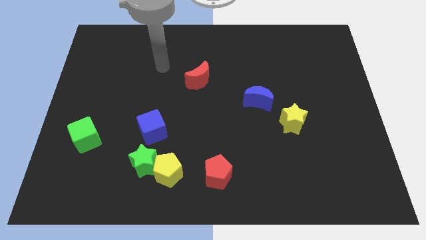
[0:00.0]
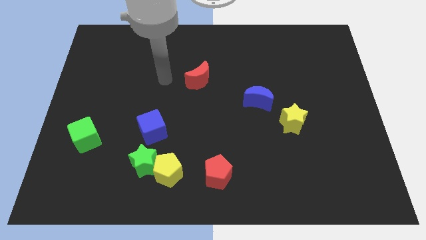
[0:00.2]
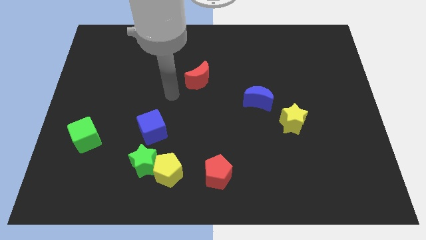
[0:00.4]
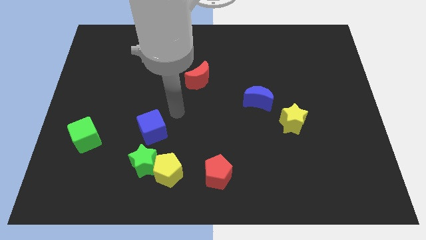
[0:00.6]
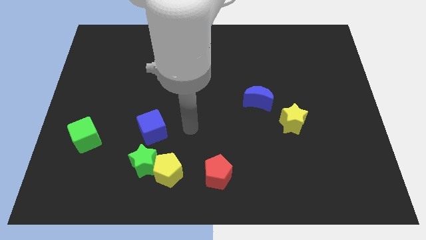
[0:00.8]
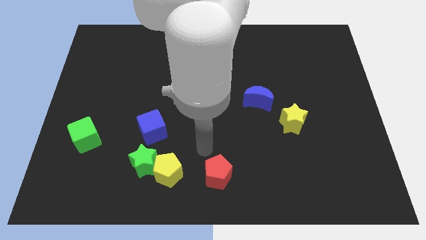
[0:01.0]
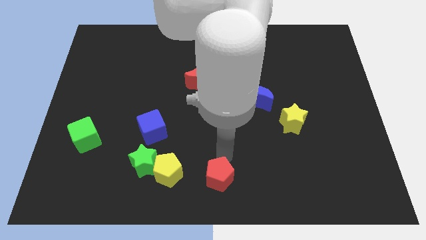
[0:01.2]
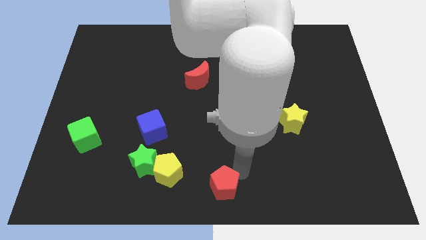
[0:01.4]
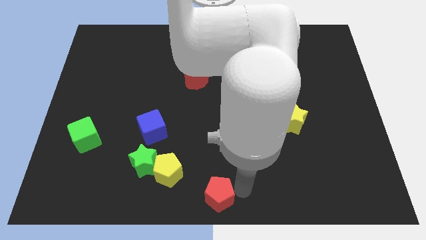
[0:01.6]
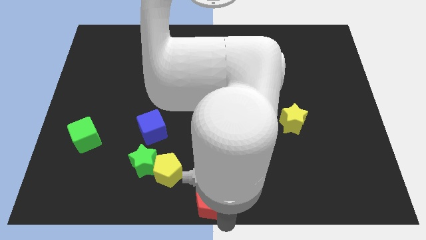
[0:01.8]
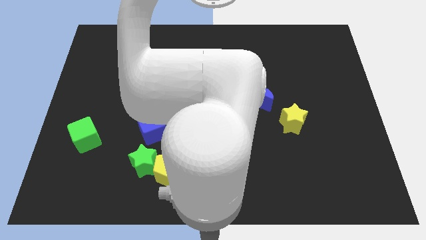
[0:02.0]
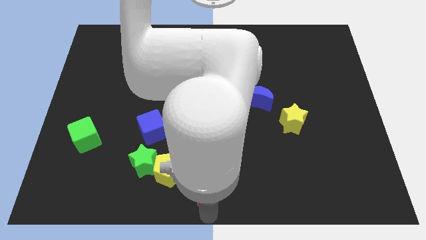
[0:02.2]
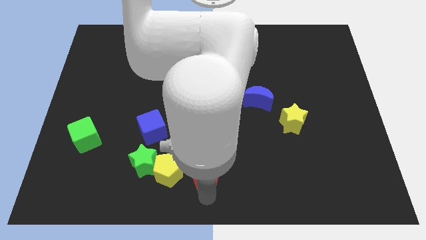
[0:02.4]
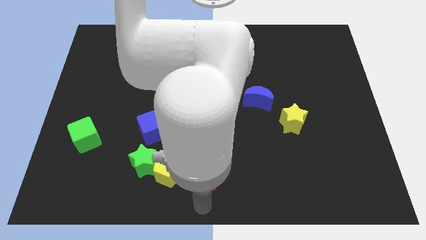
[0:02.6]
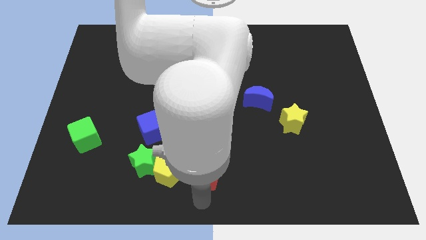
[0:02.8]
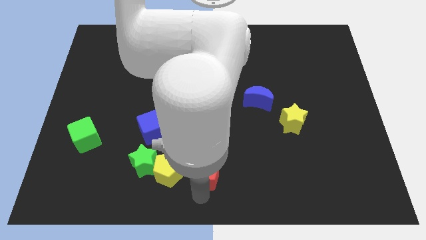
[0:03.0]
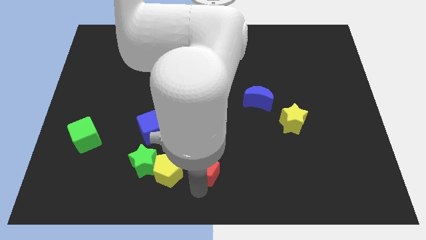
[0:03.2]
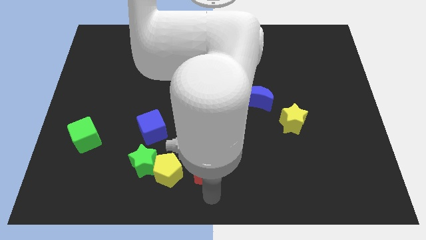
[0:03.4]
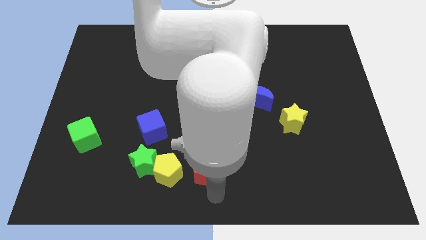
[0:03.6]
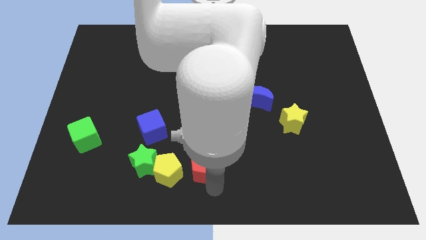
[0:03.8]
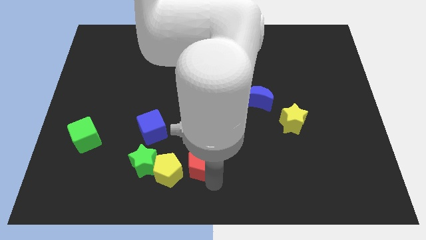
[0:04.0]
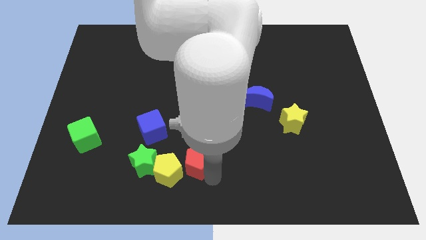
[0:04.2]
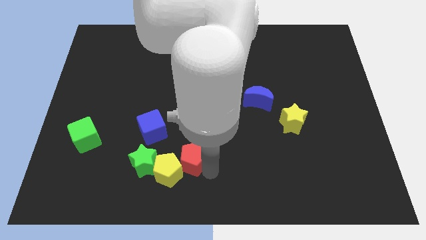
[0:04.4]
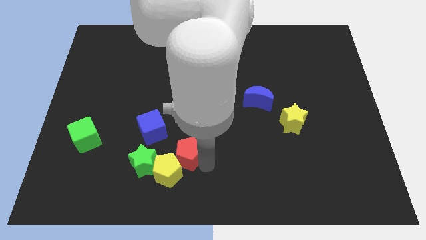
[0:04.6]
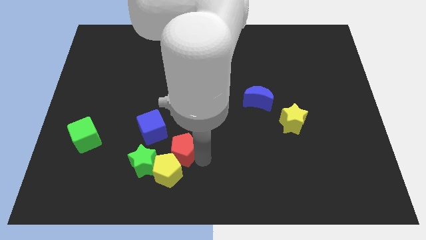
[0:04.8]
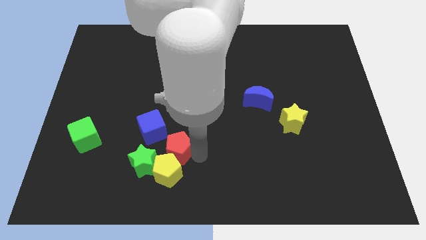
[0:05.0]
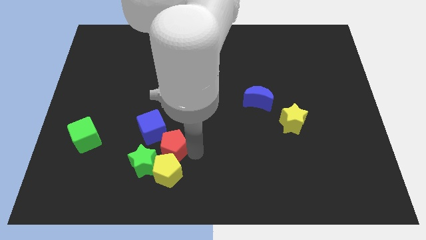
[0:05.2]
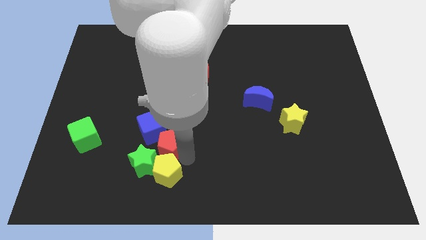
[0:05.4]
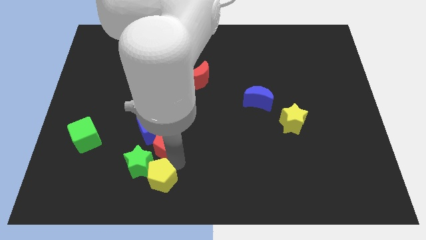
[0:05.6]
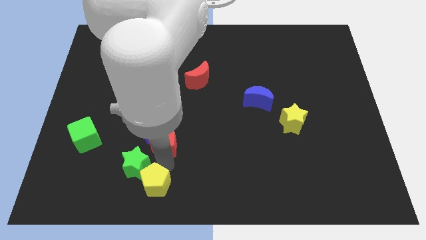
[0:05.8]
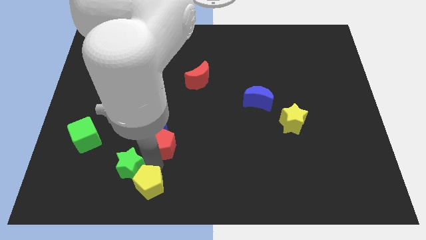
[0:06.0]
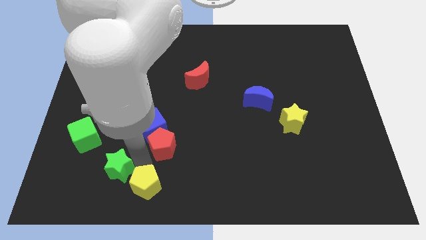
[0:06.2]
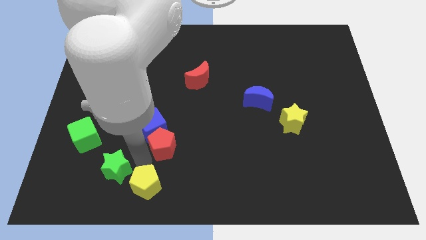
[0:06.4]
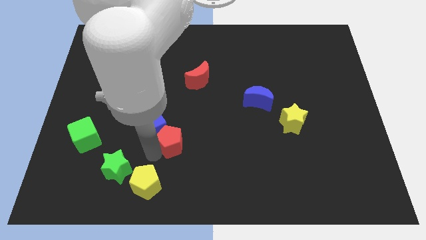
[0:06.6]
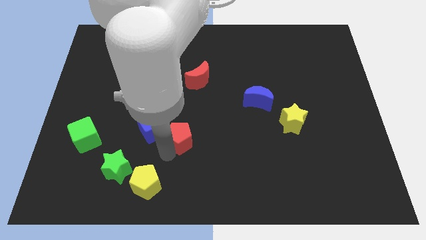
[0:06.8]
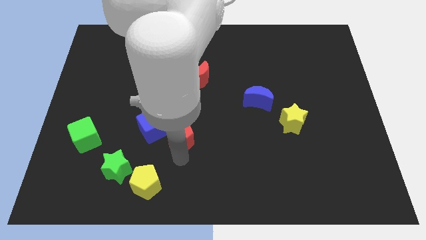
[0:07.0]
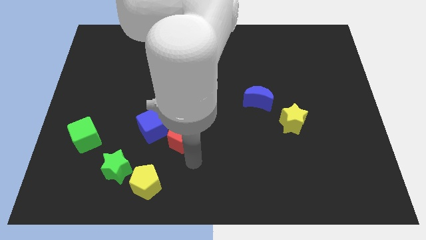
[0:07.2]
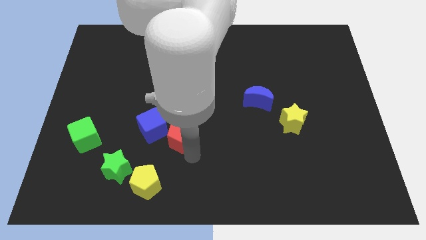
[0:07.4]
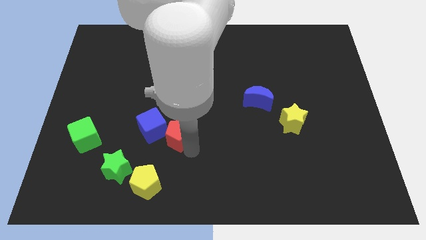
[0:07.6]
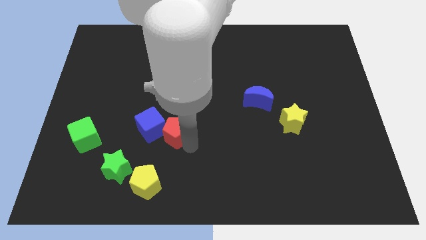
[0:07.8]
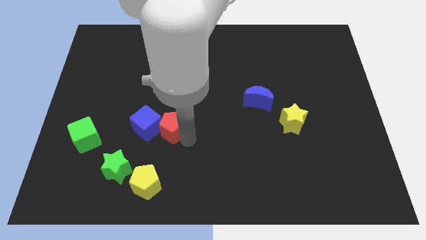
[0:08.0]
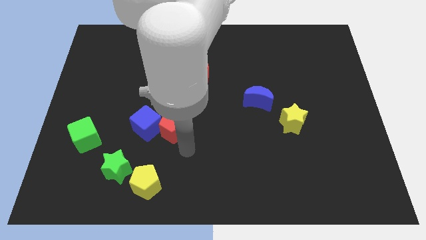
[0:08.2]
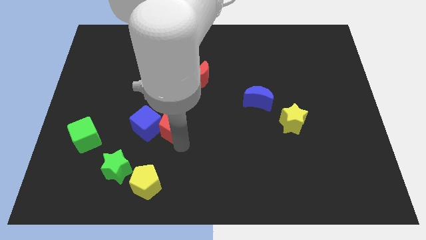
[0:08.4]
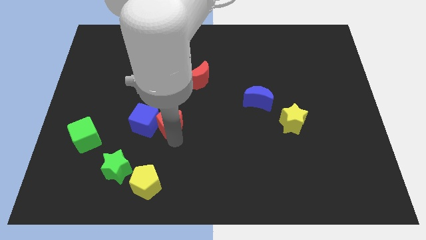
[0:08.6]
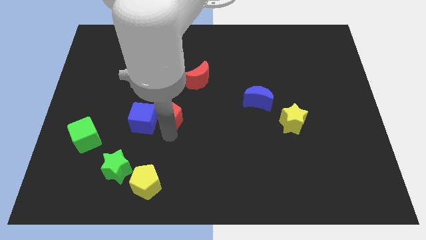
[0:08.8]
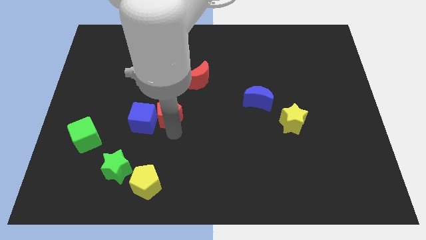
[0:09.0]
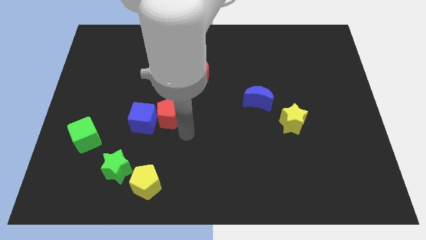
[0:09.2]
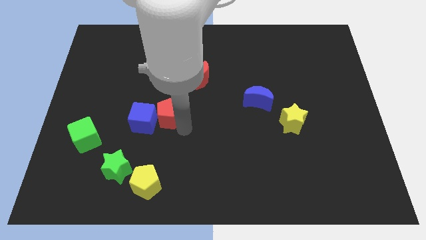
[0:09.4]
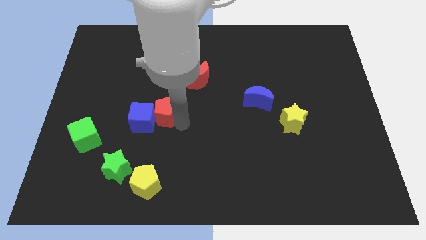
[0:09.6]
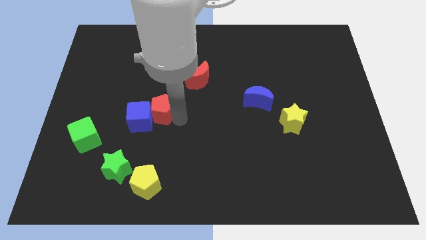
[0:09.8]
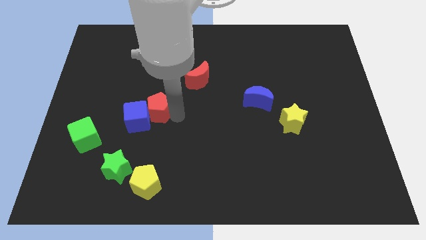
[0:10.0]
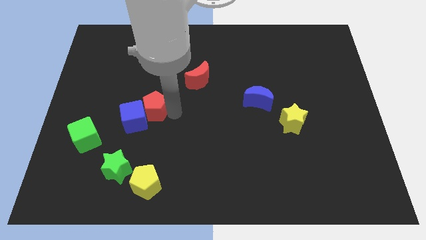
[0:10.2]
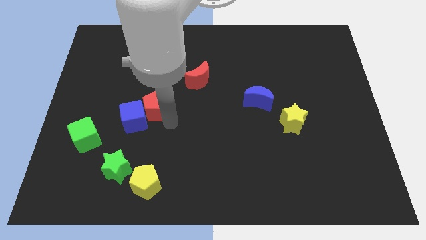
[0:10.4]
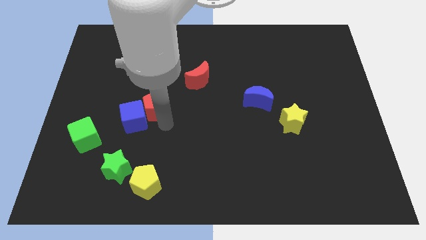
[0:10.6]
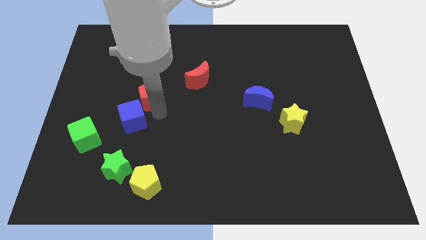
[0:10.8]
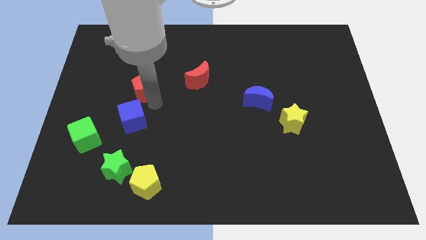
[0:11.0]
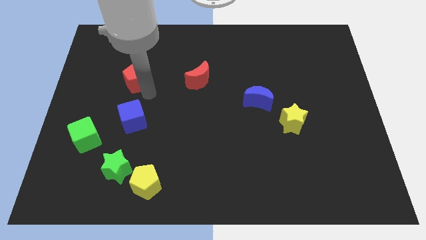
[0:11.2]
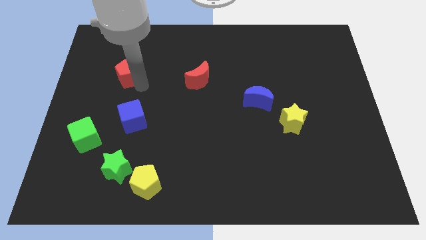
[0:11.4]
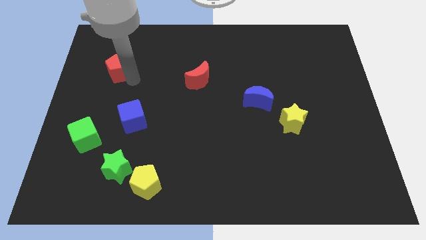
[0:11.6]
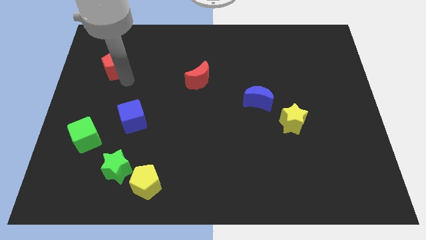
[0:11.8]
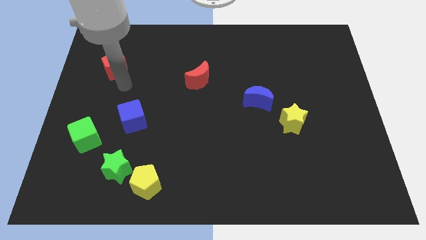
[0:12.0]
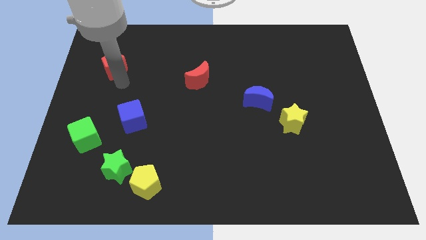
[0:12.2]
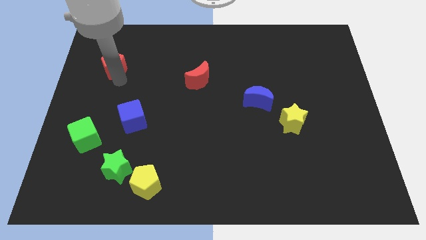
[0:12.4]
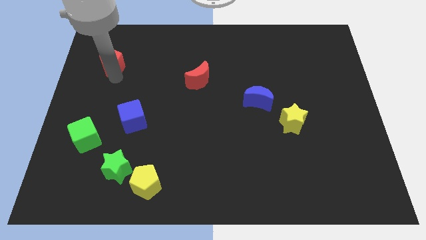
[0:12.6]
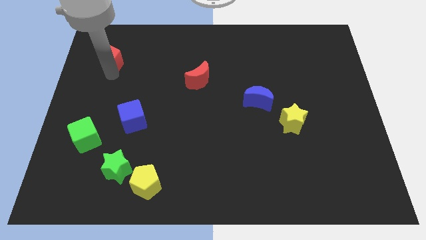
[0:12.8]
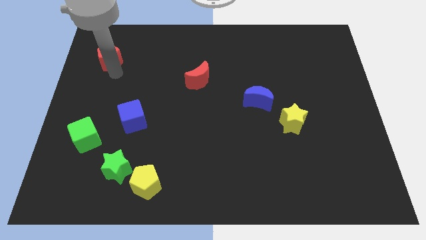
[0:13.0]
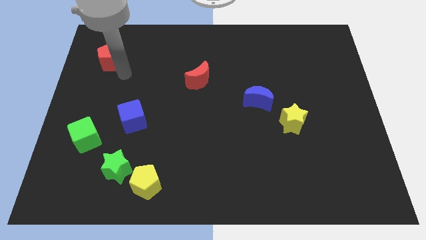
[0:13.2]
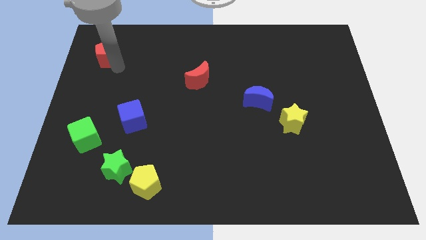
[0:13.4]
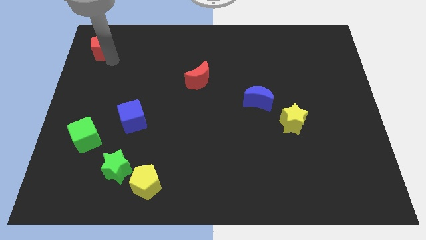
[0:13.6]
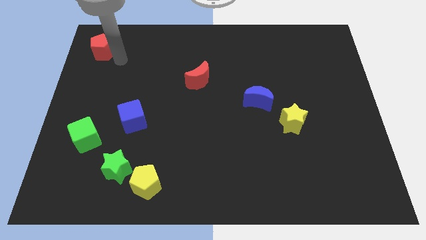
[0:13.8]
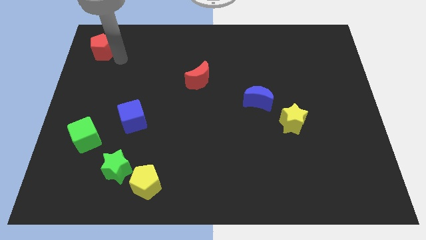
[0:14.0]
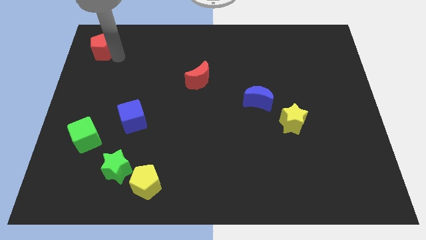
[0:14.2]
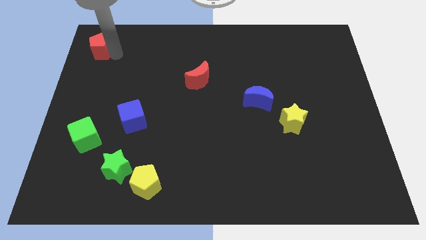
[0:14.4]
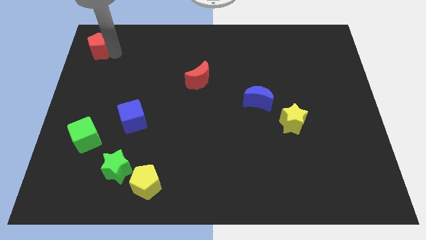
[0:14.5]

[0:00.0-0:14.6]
slide the red pentagon to the top left
